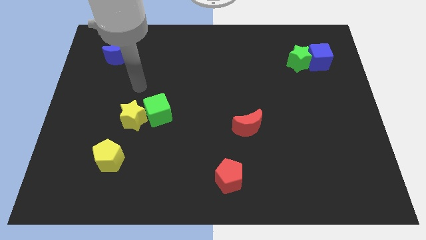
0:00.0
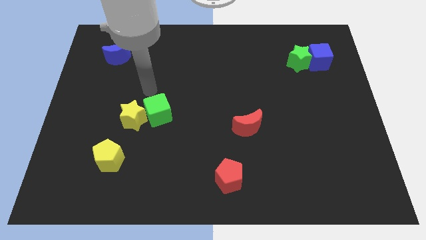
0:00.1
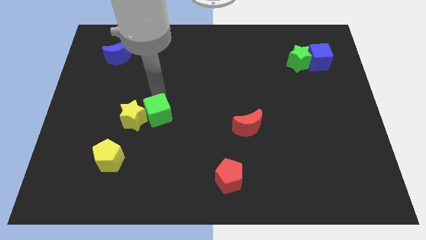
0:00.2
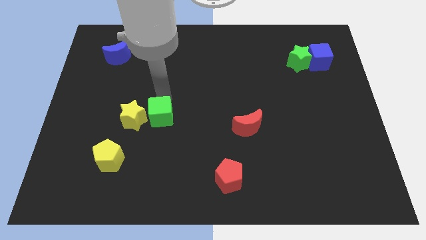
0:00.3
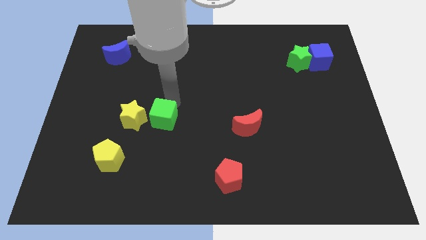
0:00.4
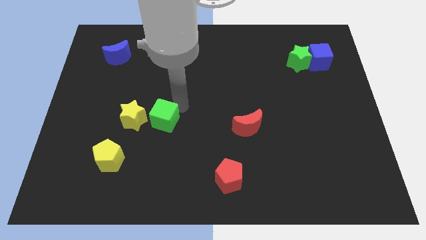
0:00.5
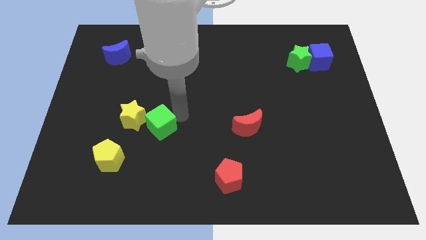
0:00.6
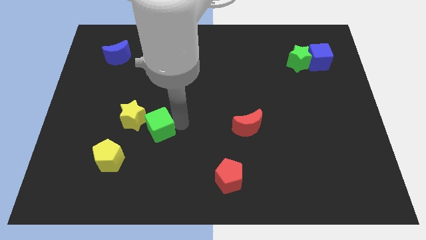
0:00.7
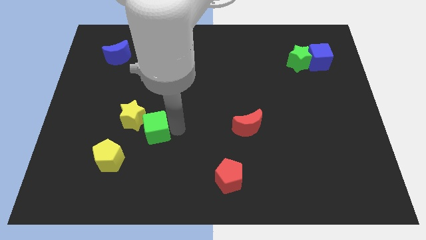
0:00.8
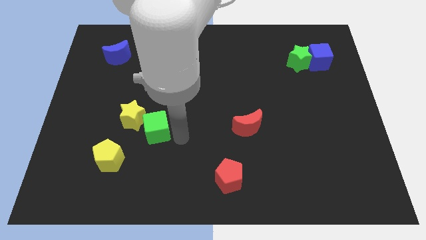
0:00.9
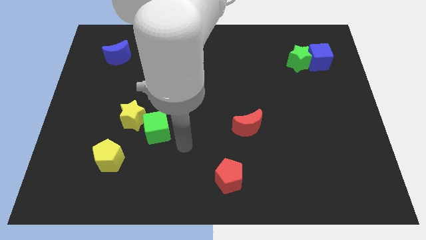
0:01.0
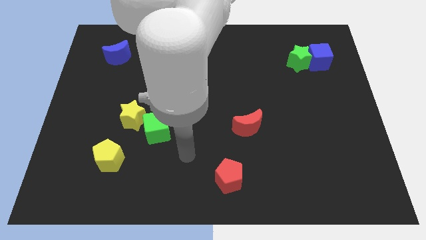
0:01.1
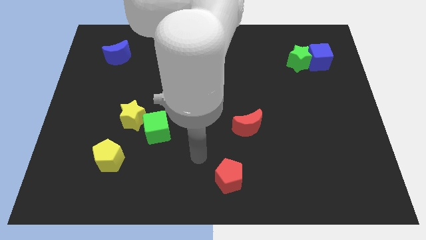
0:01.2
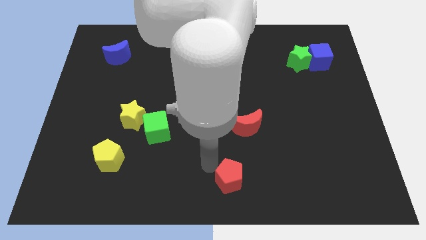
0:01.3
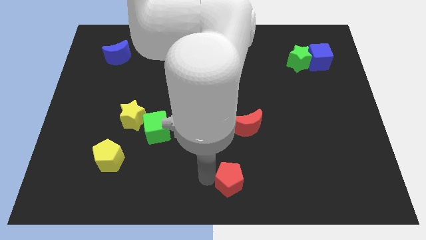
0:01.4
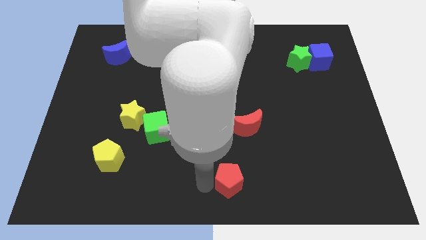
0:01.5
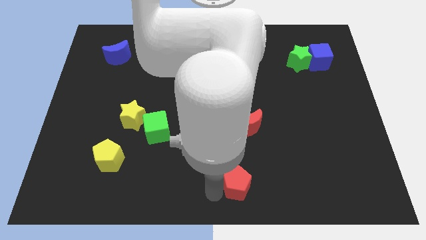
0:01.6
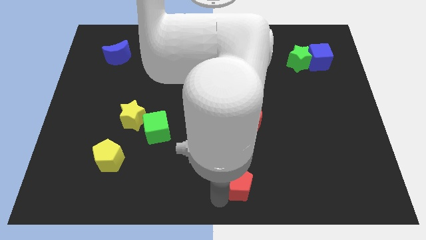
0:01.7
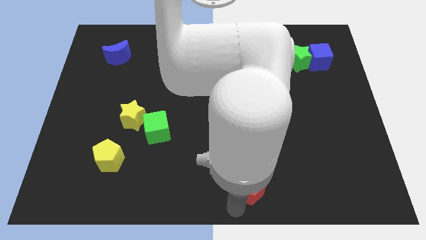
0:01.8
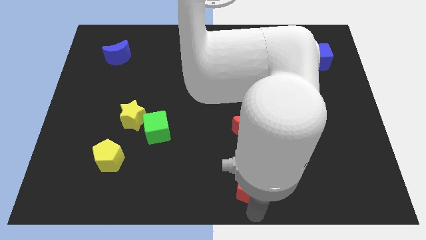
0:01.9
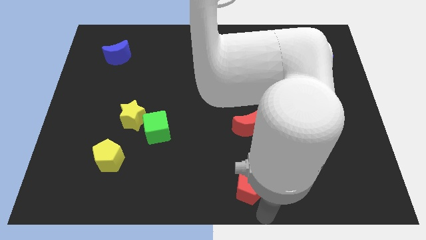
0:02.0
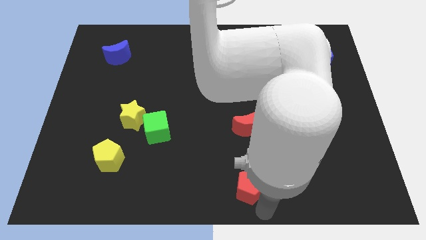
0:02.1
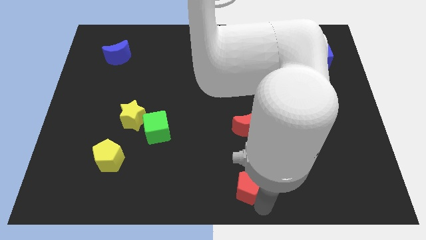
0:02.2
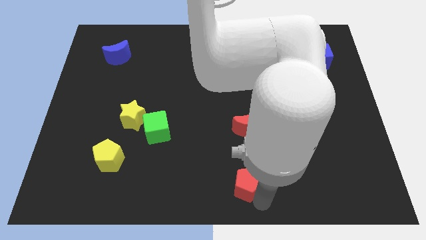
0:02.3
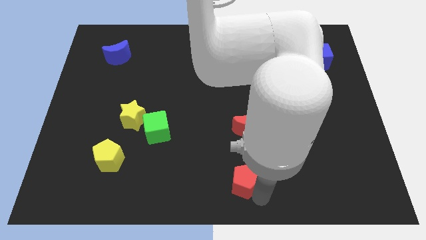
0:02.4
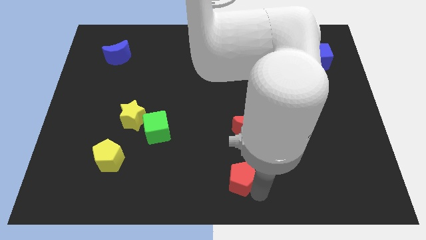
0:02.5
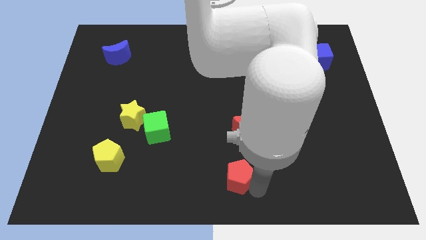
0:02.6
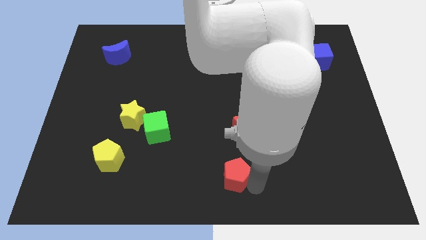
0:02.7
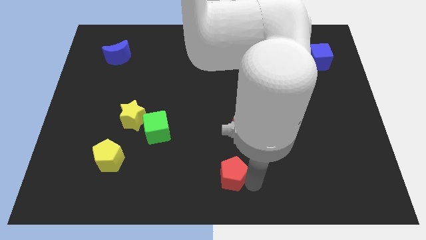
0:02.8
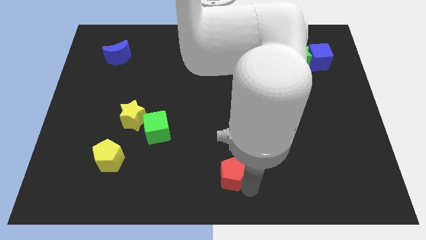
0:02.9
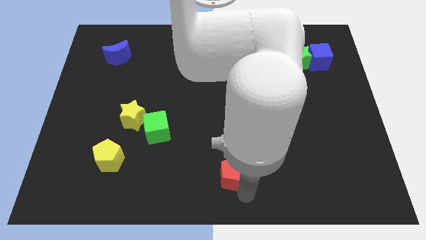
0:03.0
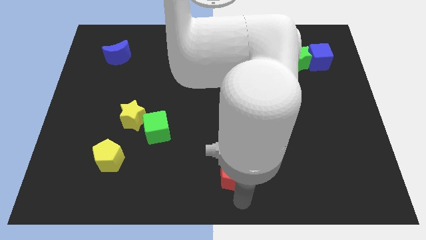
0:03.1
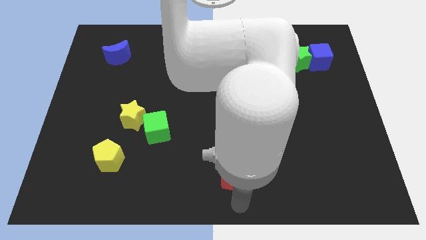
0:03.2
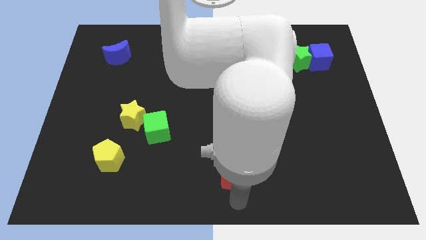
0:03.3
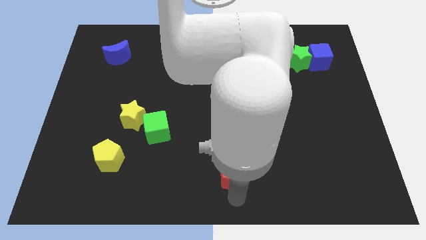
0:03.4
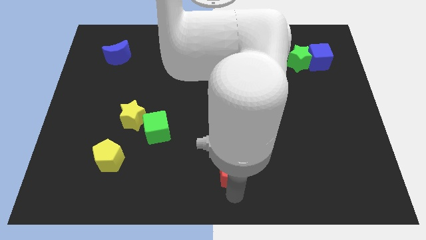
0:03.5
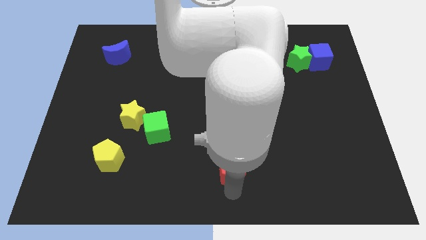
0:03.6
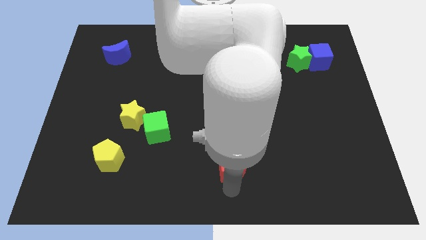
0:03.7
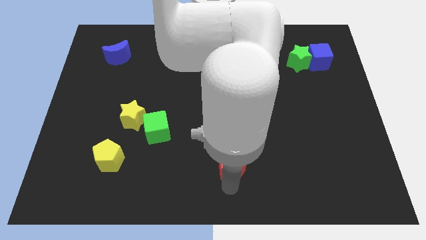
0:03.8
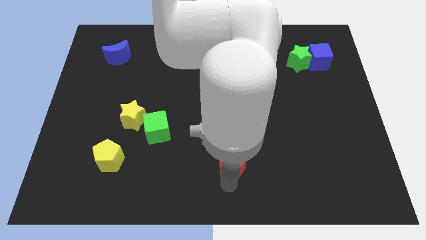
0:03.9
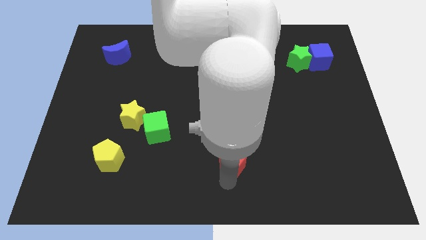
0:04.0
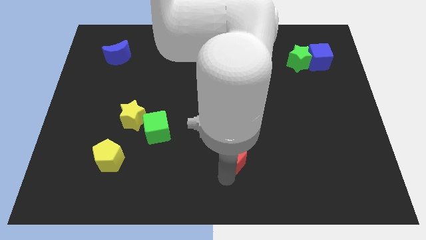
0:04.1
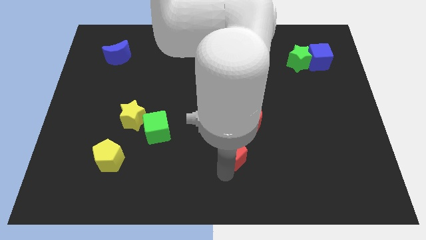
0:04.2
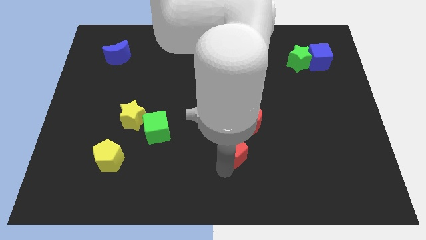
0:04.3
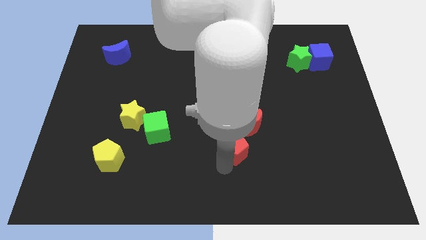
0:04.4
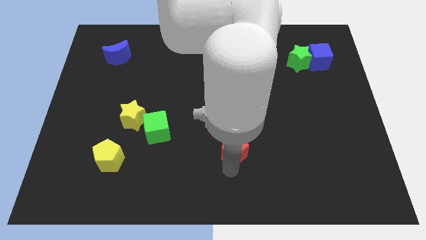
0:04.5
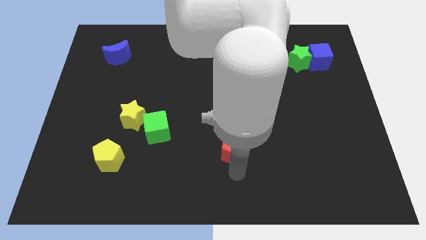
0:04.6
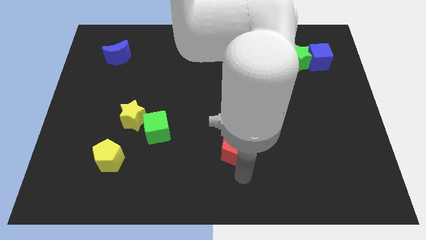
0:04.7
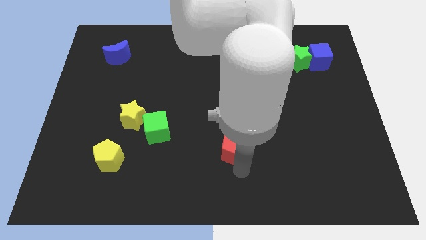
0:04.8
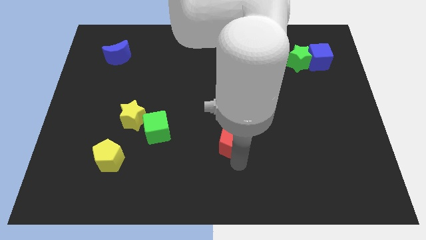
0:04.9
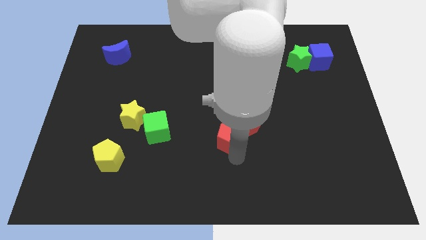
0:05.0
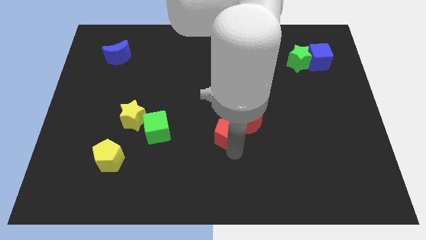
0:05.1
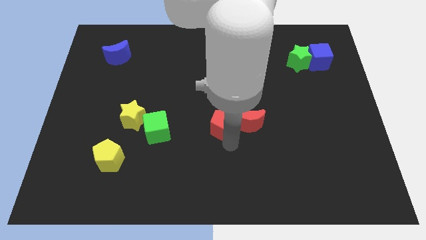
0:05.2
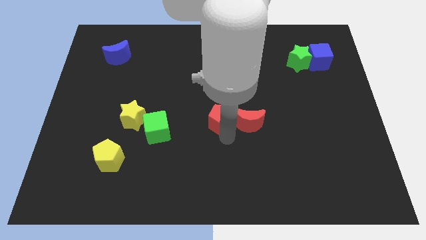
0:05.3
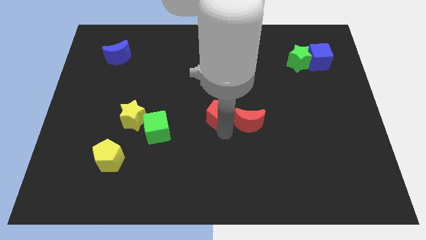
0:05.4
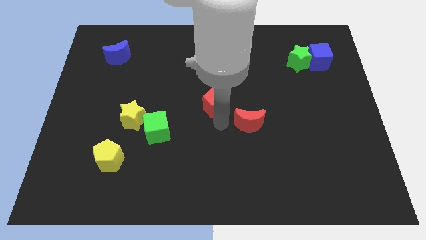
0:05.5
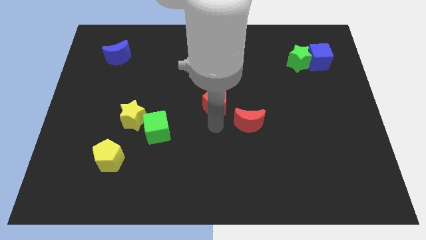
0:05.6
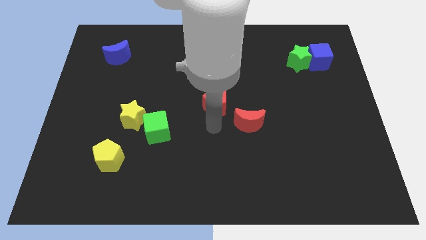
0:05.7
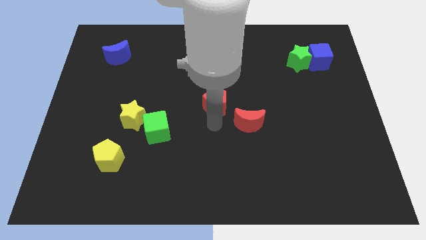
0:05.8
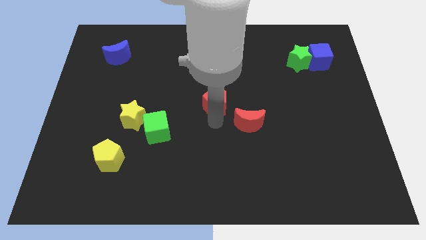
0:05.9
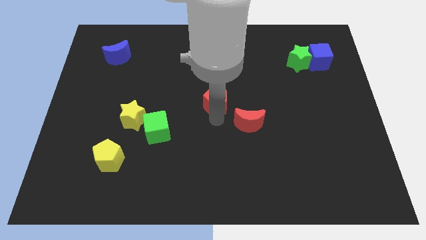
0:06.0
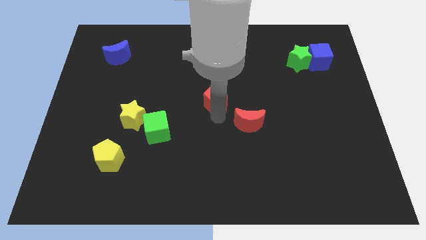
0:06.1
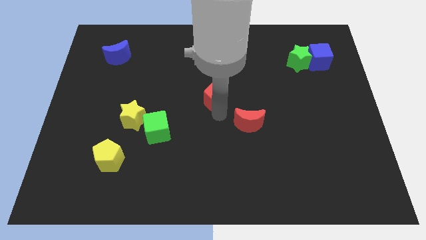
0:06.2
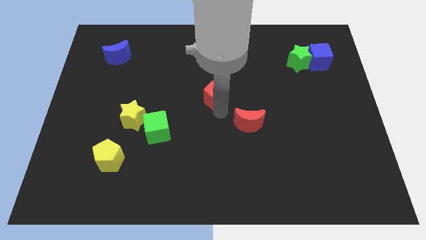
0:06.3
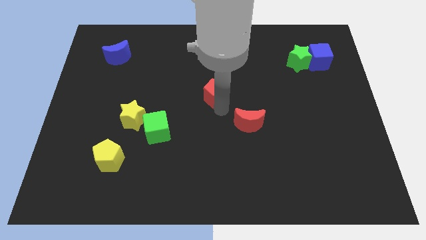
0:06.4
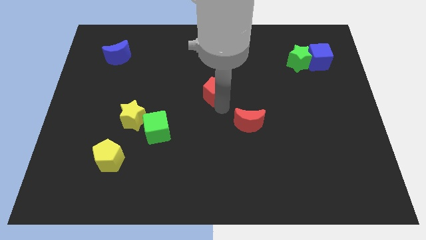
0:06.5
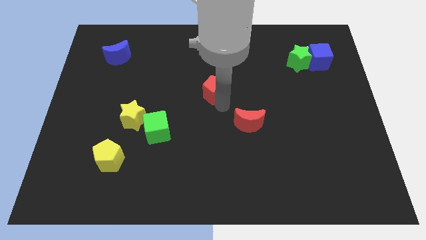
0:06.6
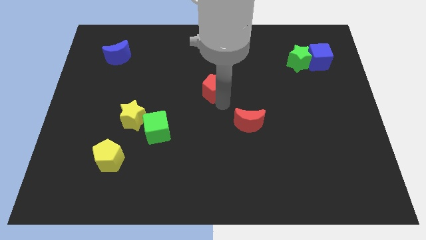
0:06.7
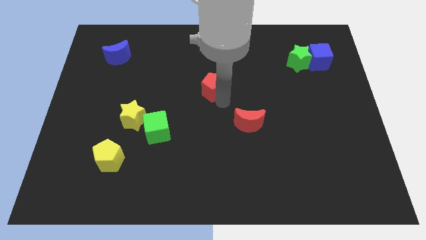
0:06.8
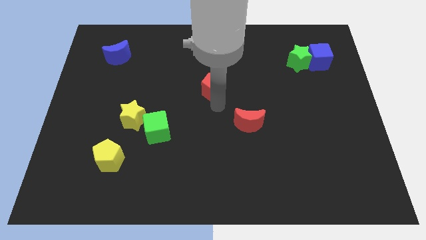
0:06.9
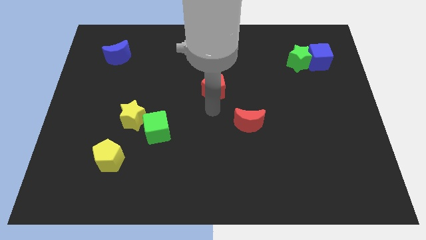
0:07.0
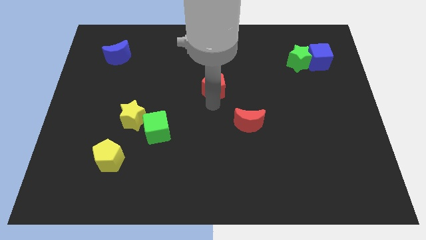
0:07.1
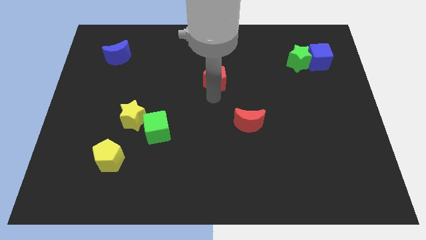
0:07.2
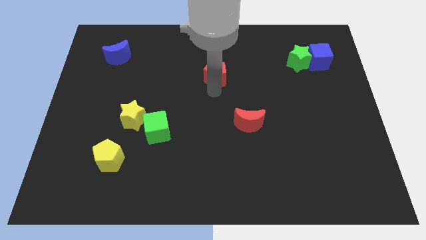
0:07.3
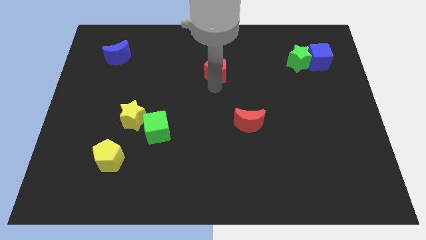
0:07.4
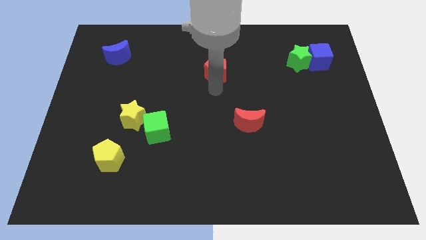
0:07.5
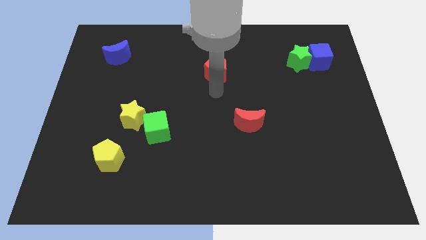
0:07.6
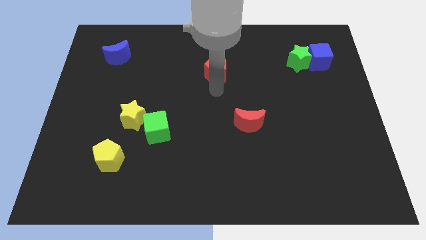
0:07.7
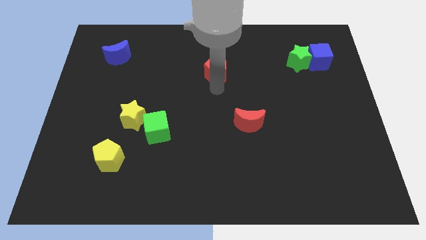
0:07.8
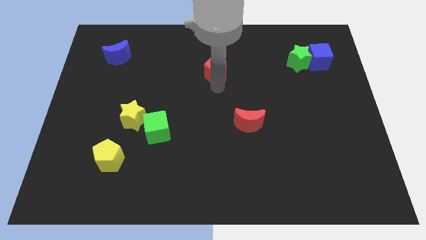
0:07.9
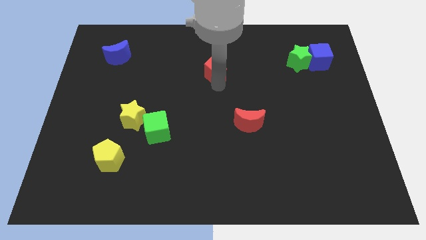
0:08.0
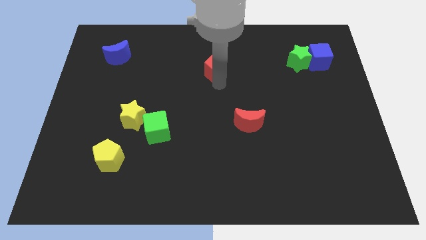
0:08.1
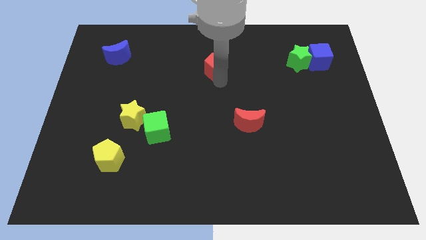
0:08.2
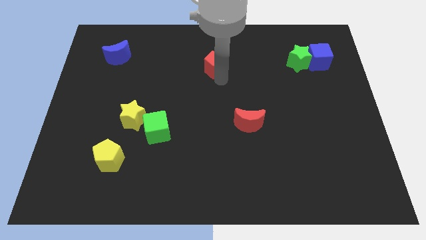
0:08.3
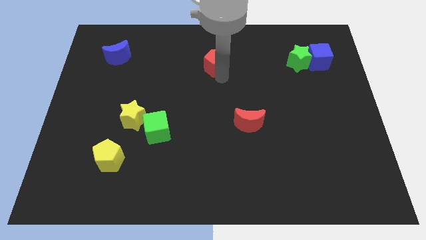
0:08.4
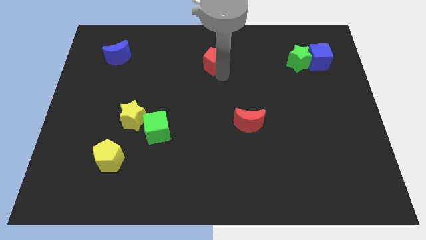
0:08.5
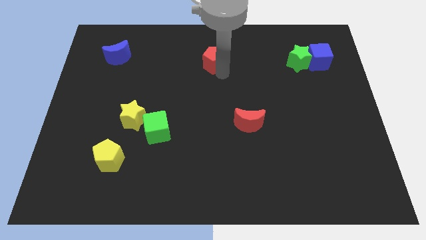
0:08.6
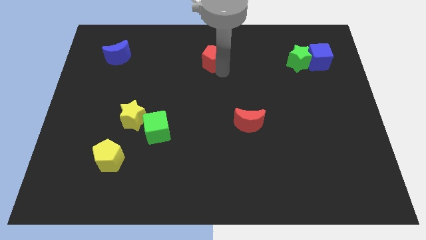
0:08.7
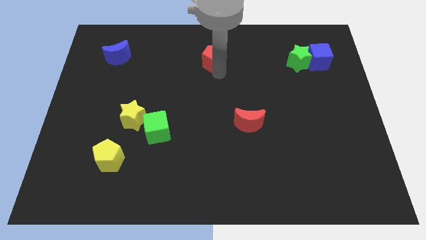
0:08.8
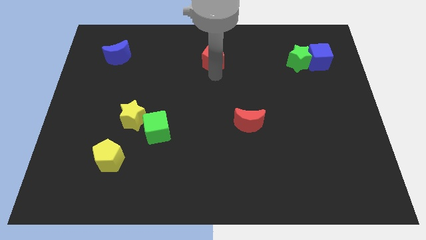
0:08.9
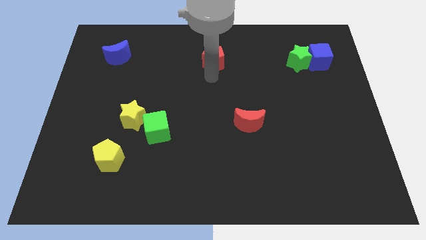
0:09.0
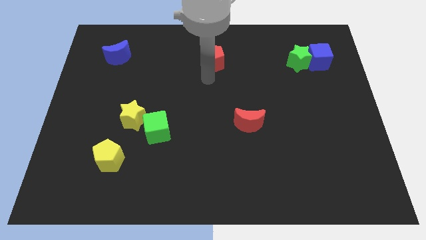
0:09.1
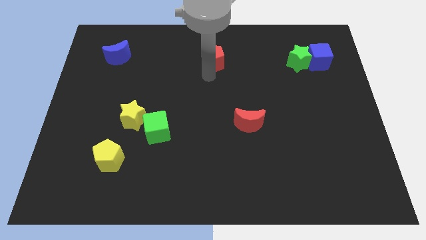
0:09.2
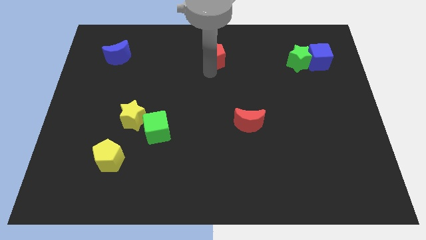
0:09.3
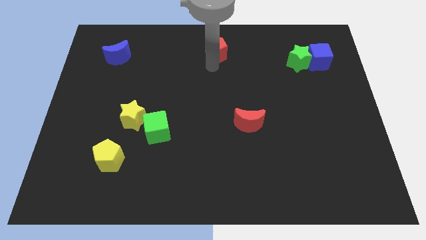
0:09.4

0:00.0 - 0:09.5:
slide the red pentagon to the towards your base
